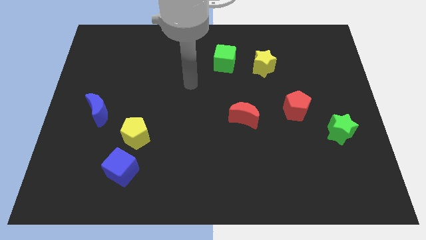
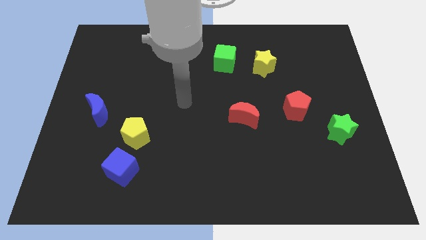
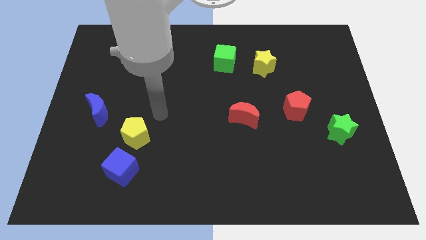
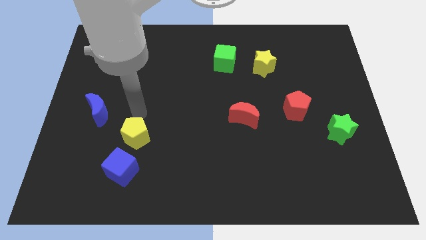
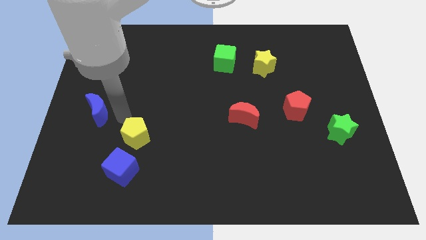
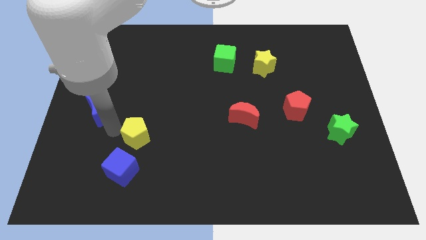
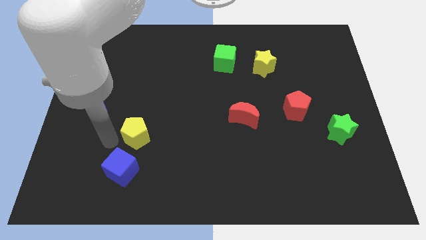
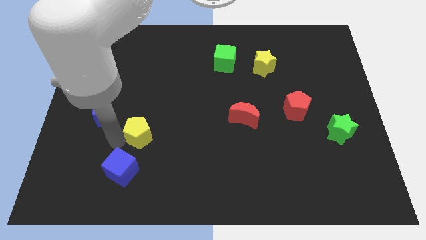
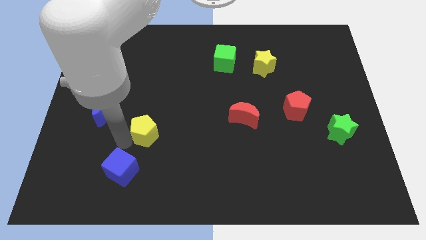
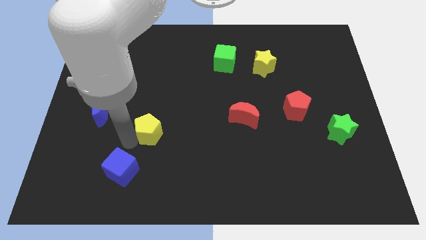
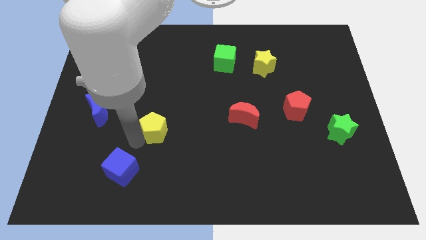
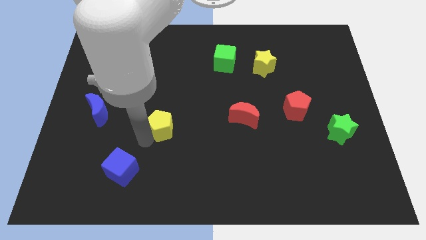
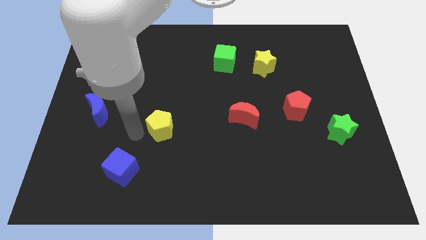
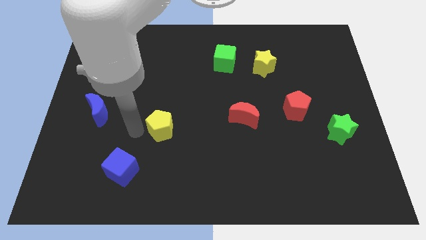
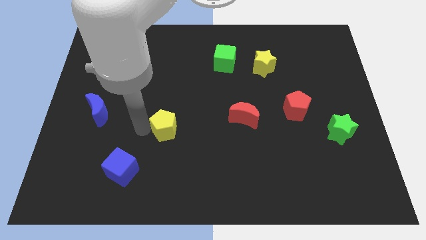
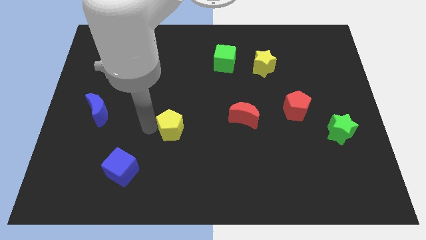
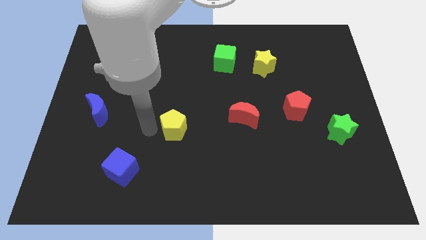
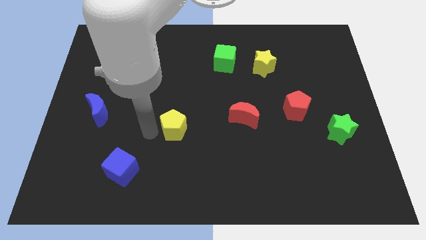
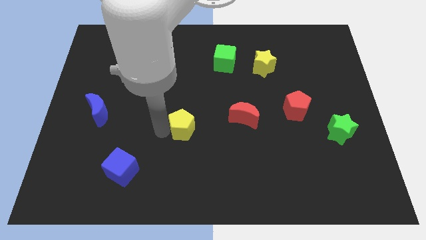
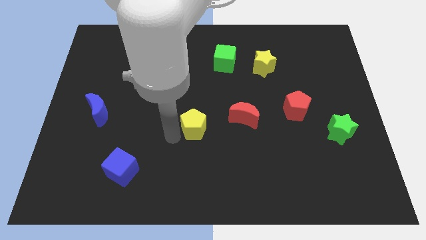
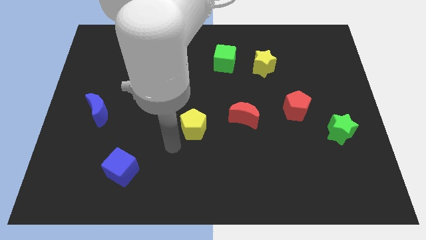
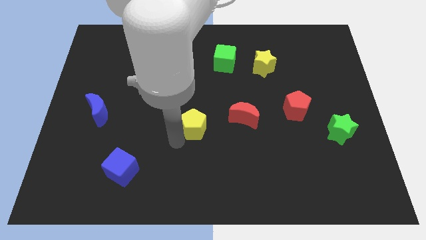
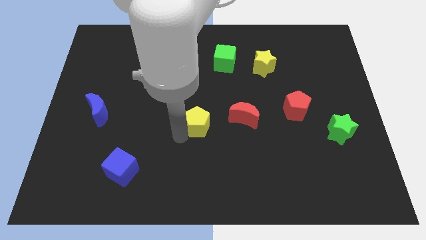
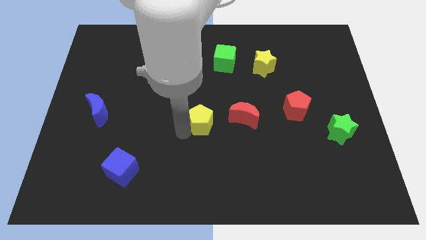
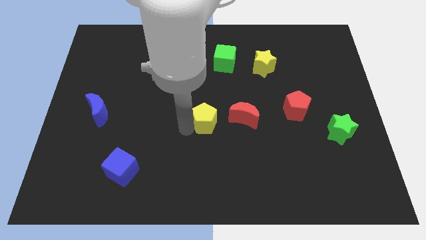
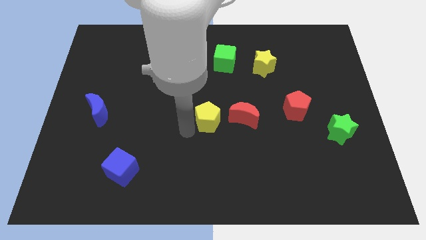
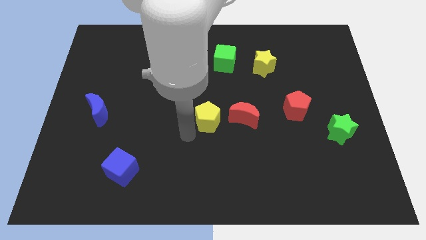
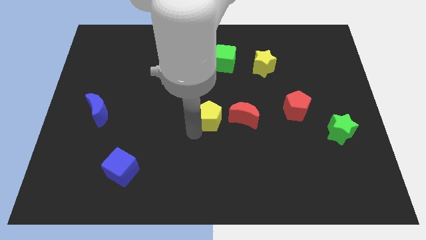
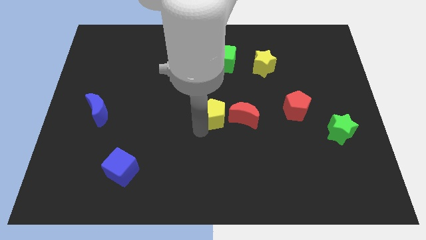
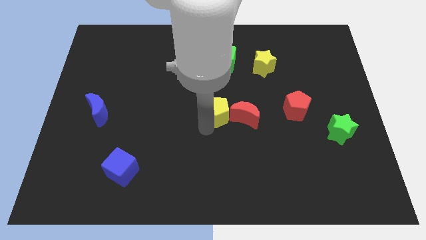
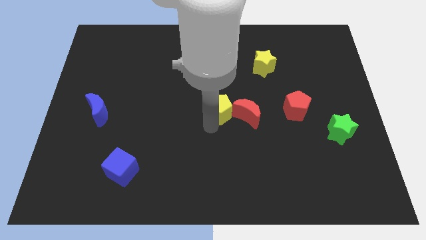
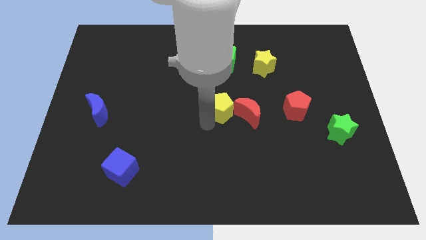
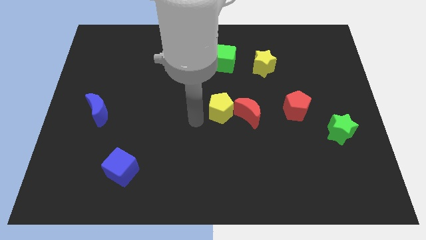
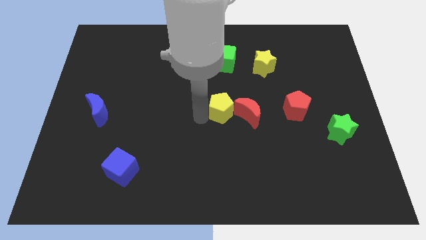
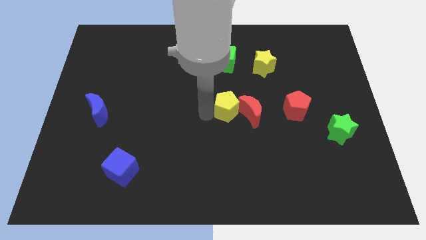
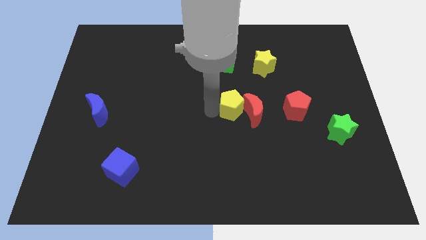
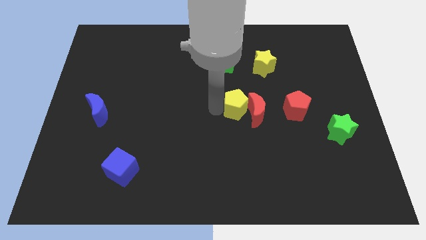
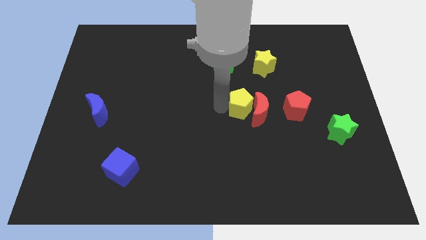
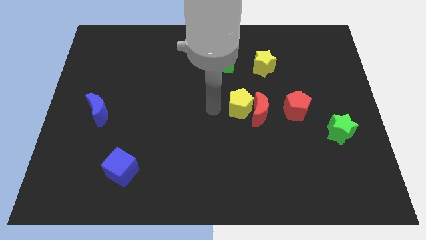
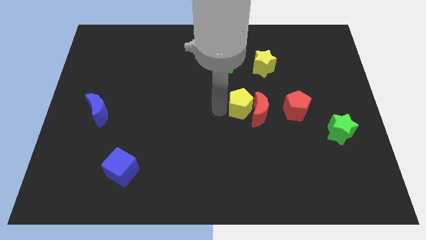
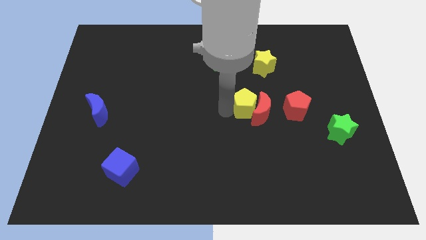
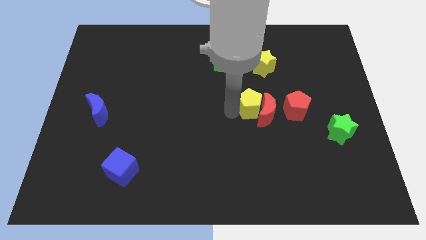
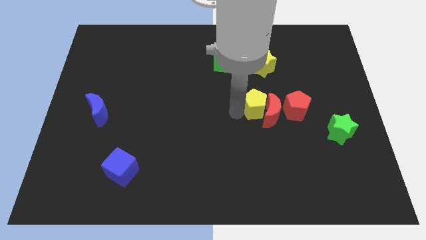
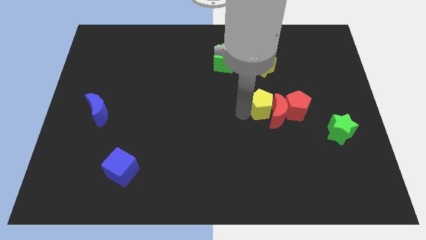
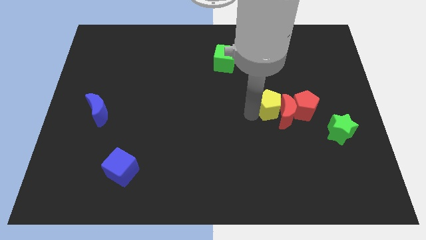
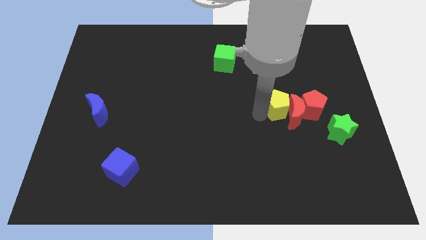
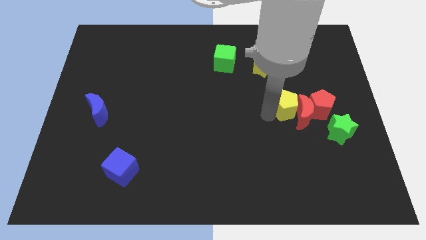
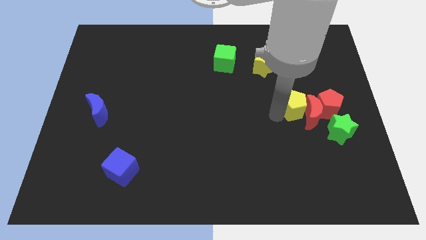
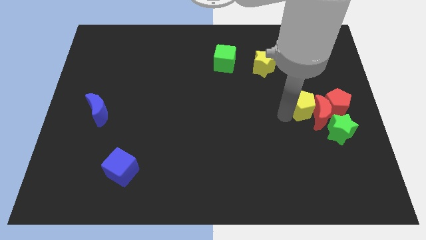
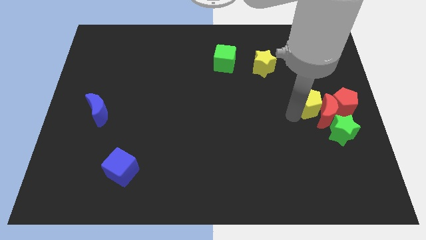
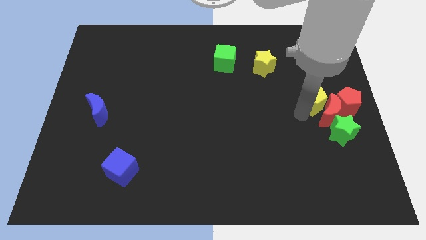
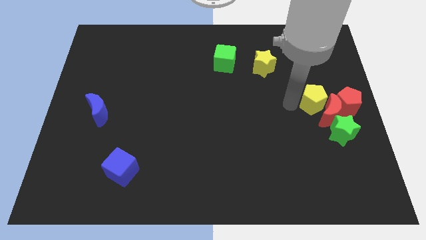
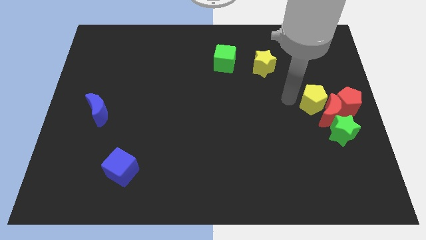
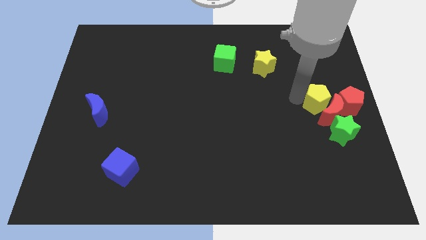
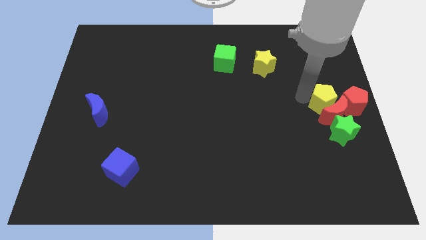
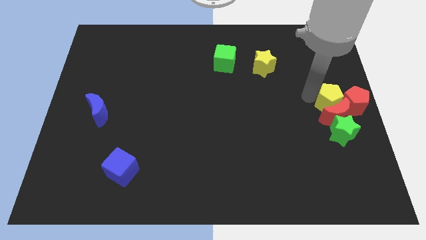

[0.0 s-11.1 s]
put the yellow pentagon towards the red pentagon

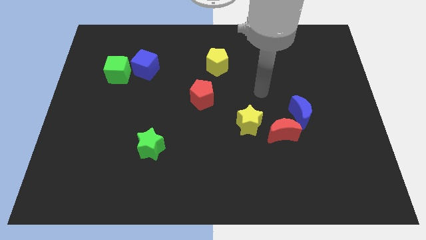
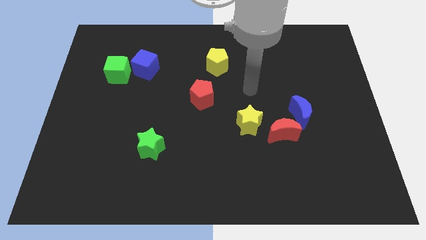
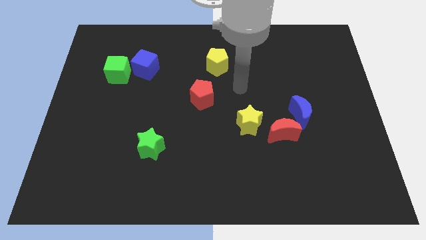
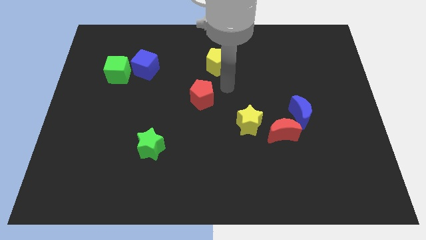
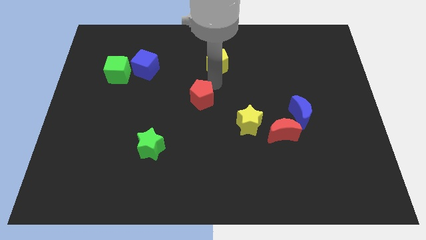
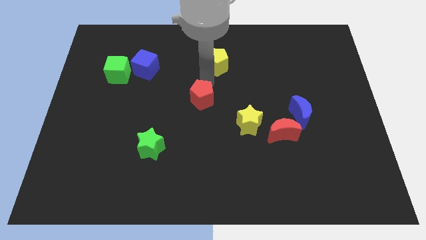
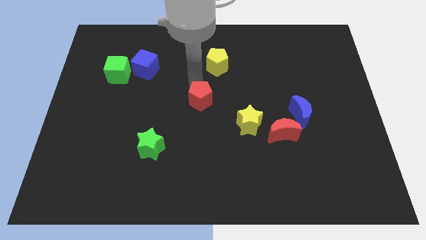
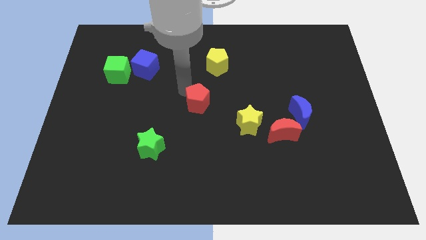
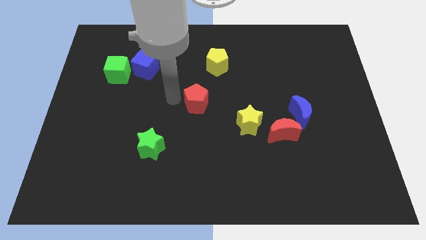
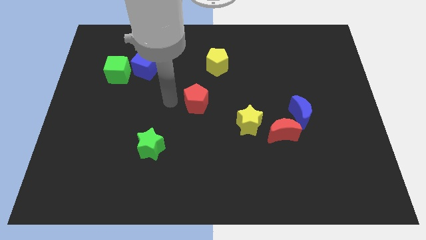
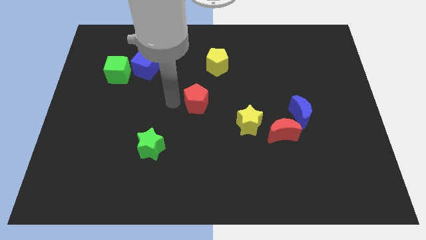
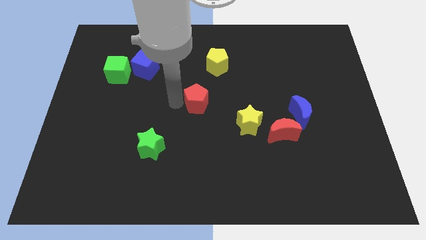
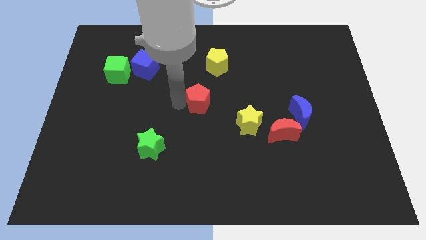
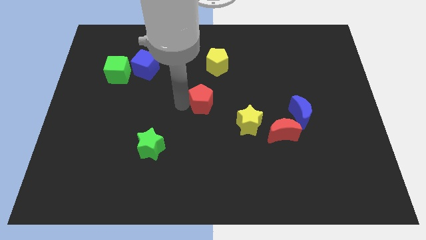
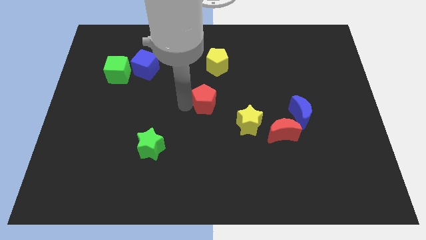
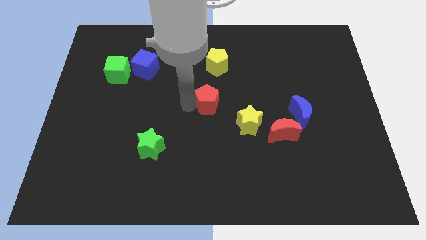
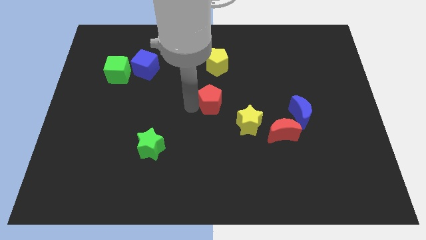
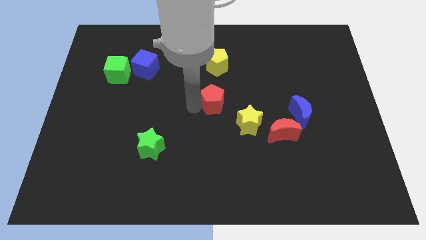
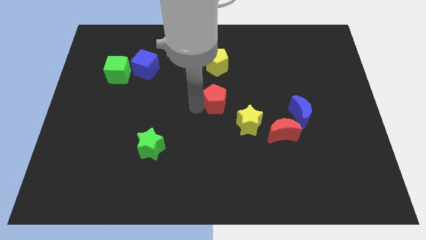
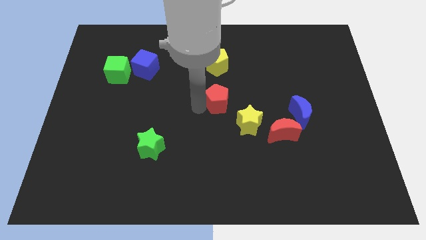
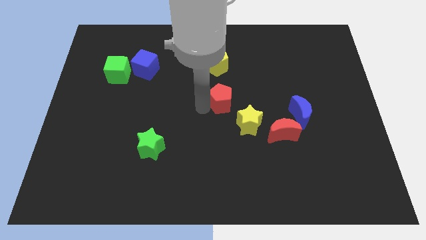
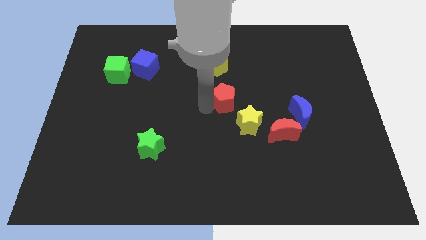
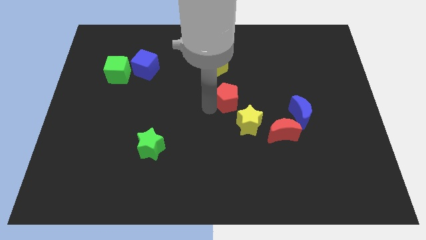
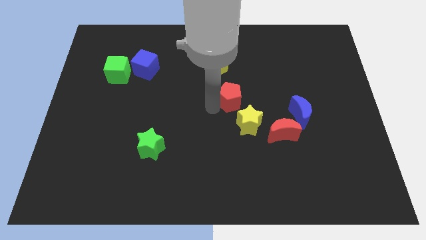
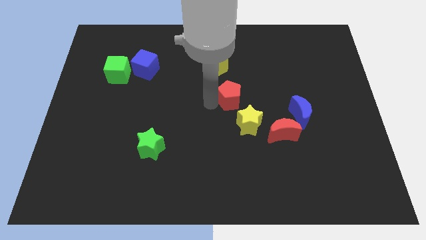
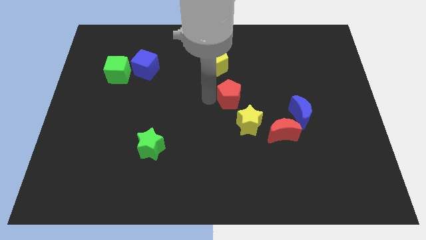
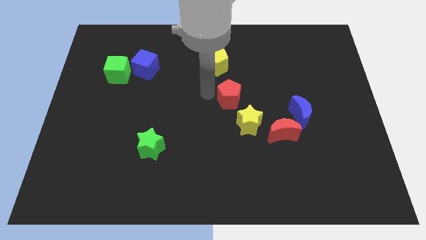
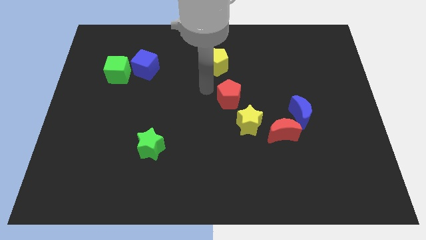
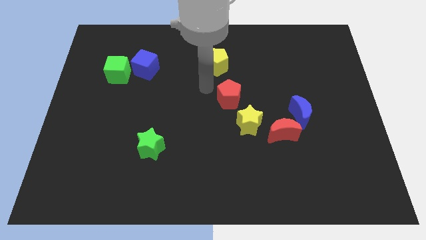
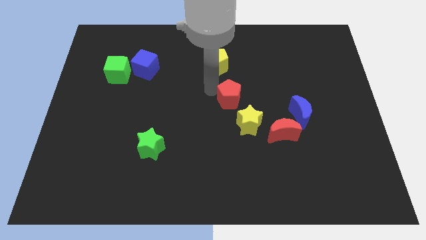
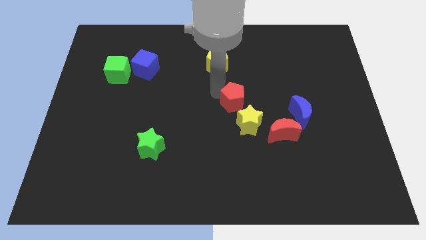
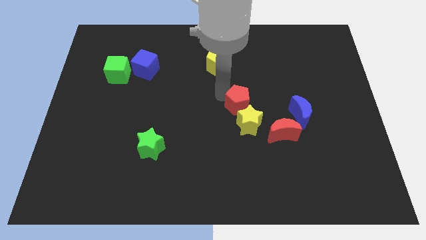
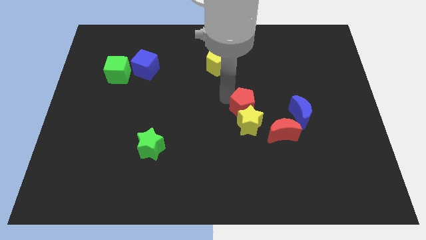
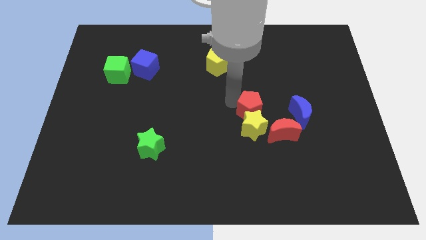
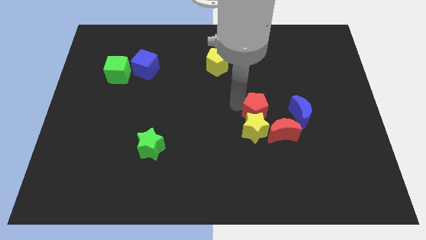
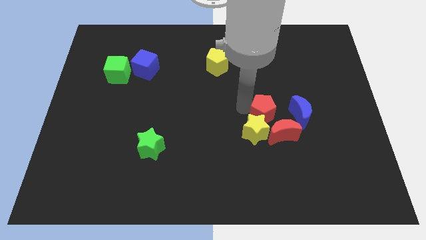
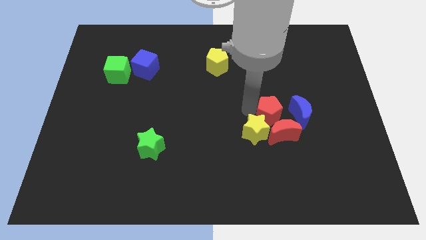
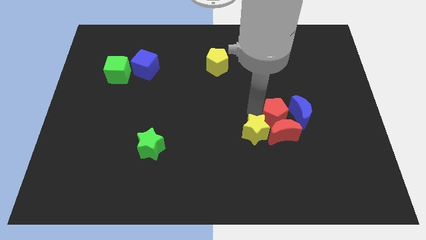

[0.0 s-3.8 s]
slide the red pentagon towards the blue moon
